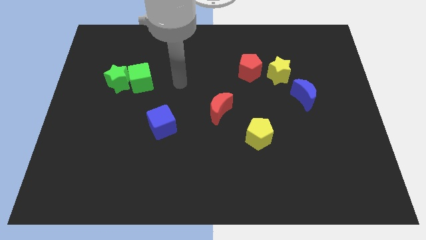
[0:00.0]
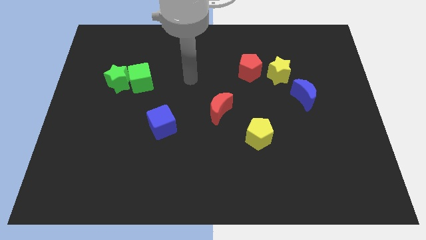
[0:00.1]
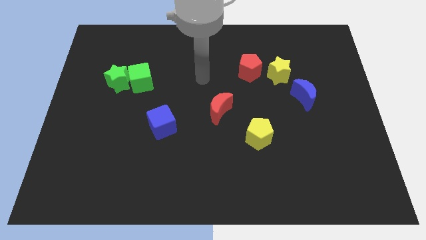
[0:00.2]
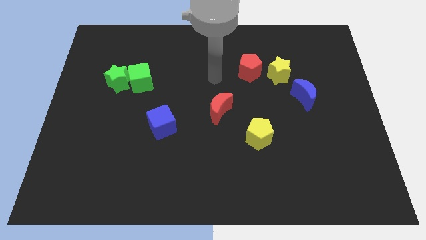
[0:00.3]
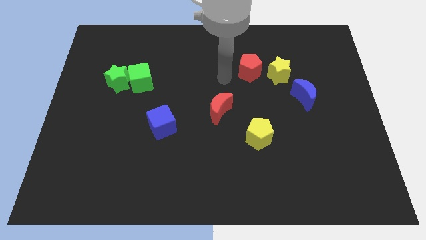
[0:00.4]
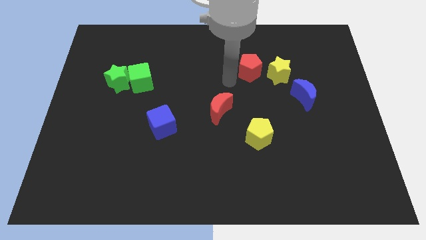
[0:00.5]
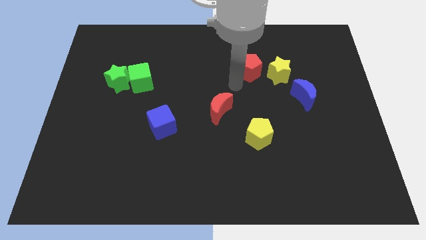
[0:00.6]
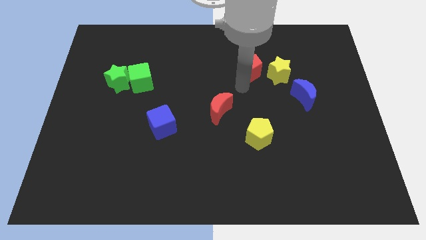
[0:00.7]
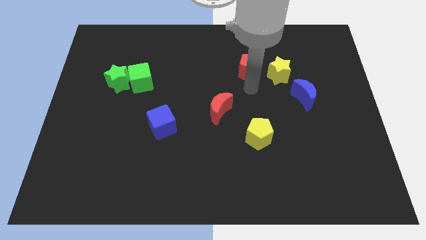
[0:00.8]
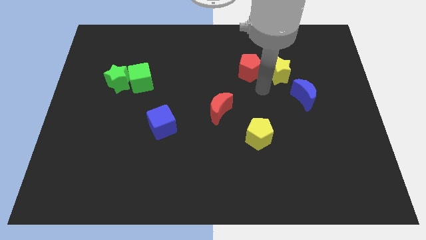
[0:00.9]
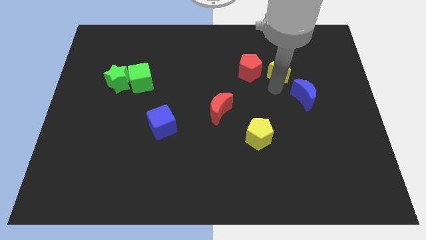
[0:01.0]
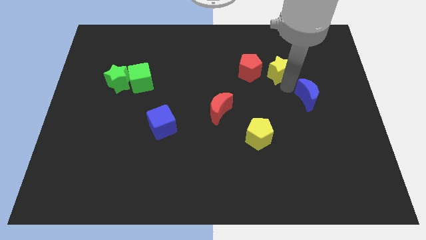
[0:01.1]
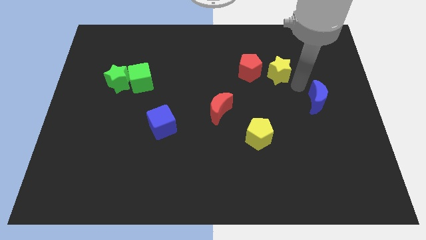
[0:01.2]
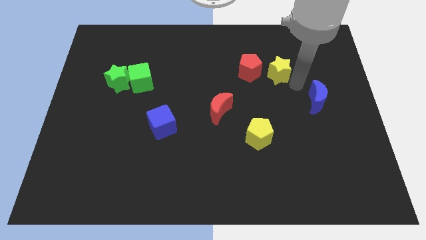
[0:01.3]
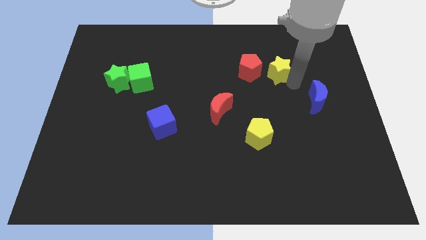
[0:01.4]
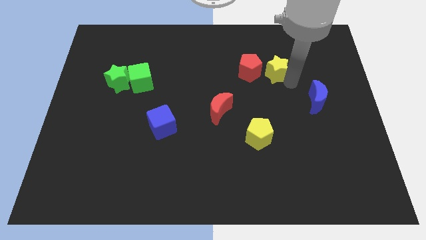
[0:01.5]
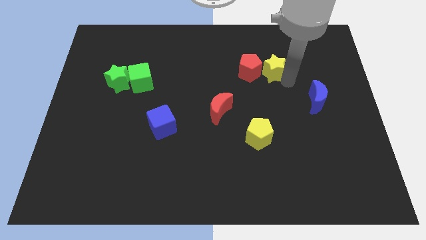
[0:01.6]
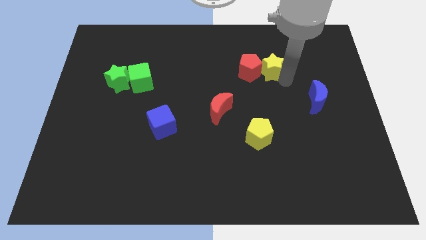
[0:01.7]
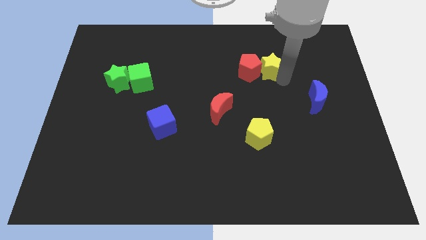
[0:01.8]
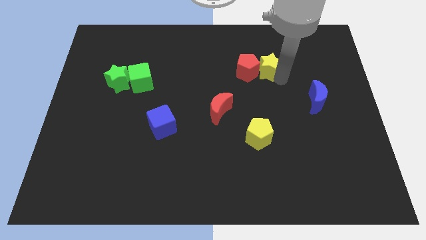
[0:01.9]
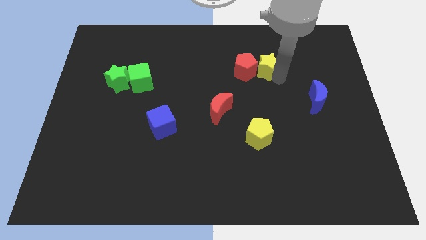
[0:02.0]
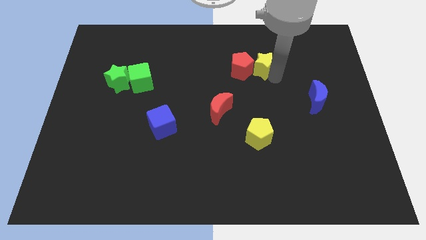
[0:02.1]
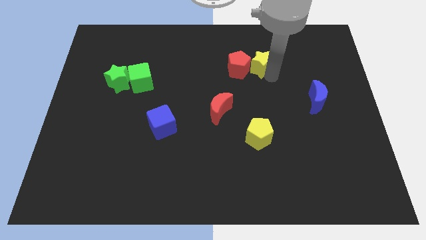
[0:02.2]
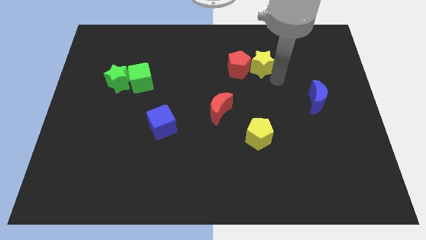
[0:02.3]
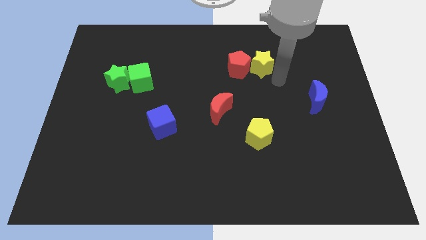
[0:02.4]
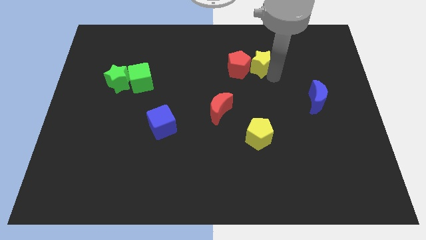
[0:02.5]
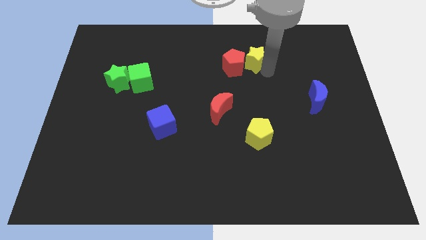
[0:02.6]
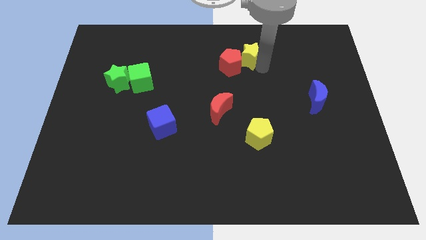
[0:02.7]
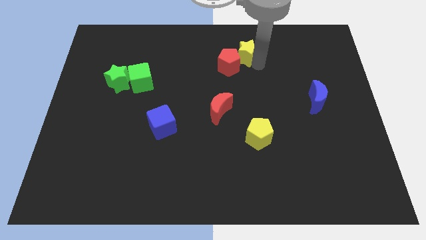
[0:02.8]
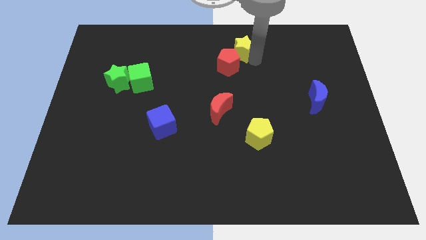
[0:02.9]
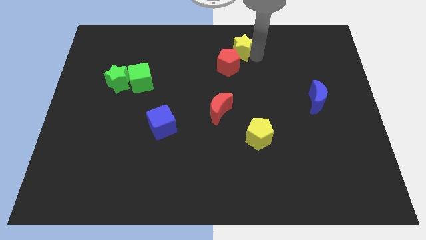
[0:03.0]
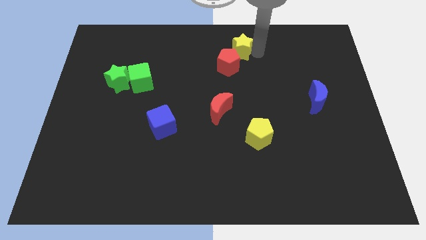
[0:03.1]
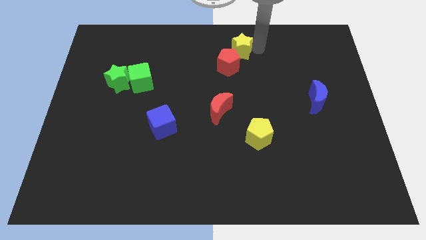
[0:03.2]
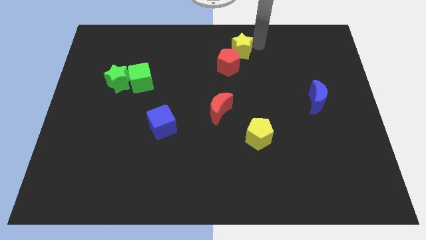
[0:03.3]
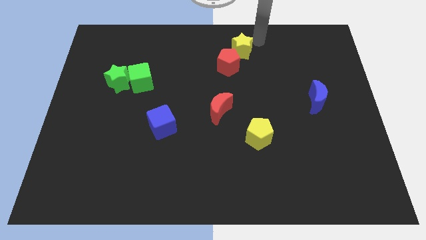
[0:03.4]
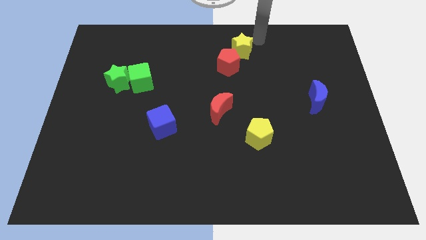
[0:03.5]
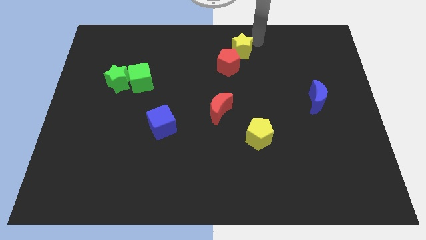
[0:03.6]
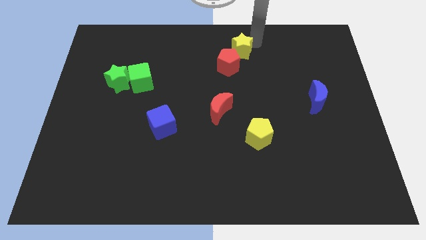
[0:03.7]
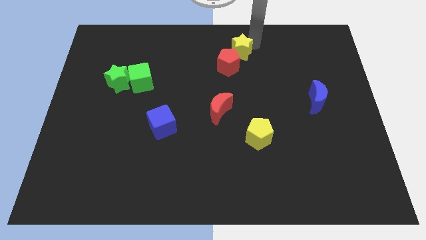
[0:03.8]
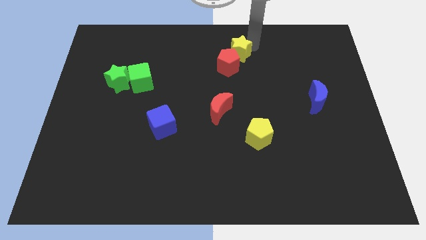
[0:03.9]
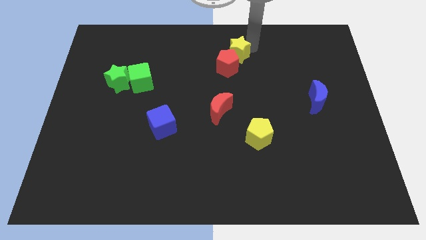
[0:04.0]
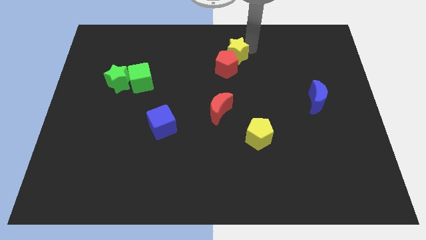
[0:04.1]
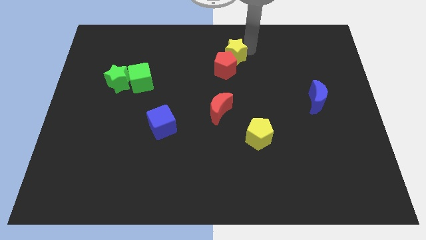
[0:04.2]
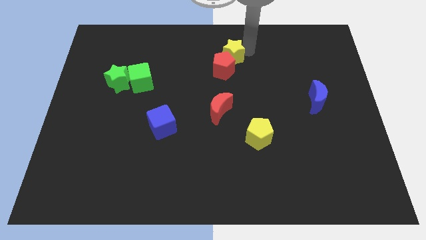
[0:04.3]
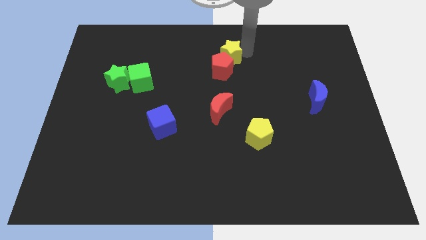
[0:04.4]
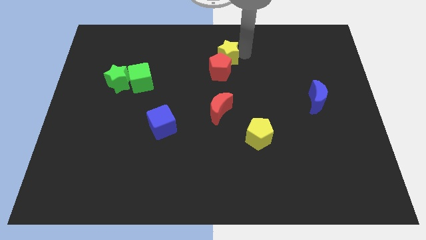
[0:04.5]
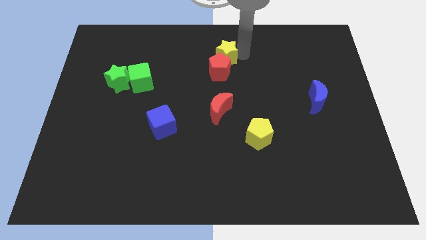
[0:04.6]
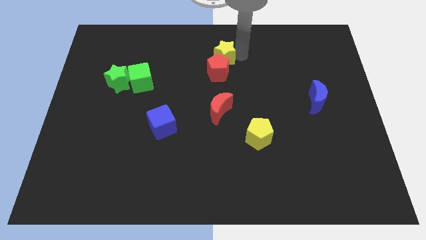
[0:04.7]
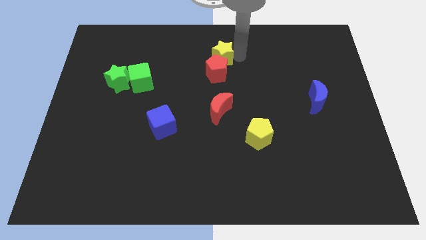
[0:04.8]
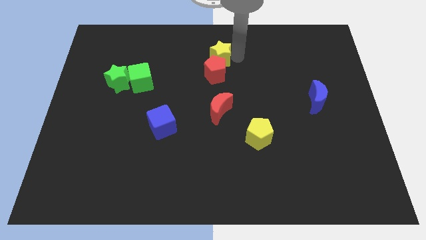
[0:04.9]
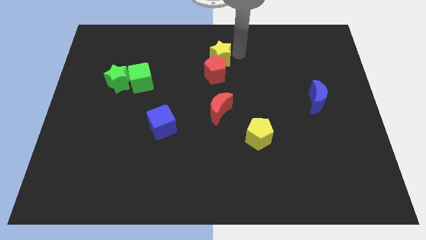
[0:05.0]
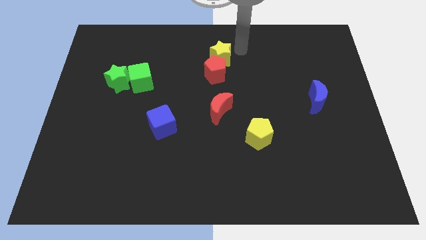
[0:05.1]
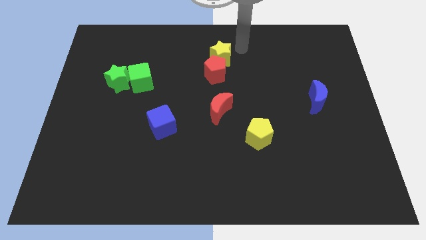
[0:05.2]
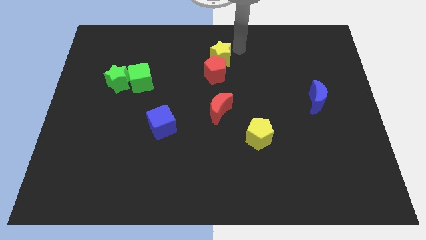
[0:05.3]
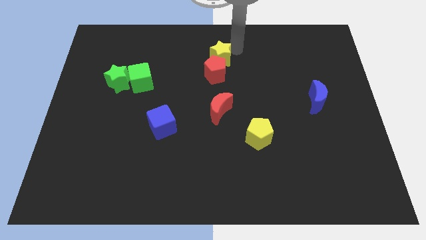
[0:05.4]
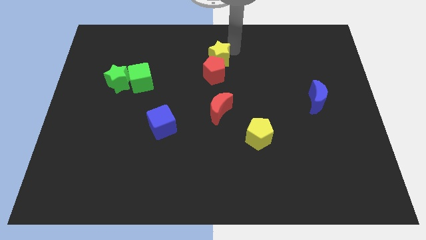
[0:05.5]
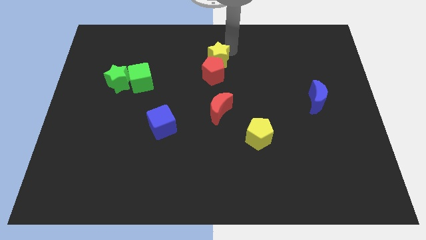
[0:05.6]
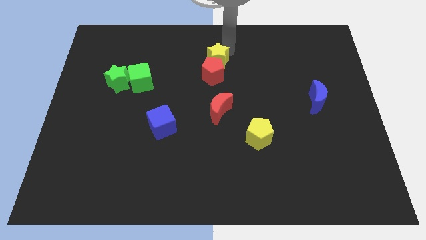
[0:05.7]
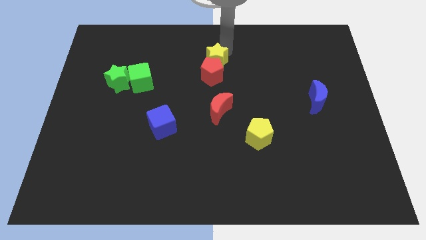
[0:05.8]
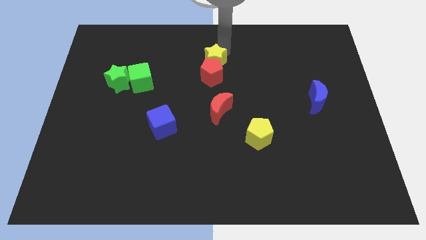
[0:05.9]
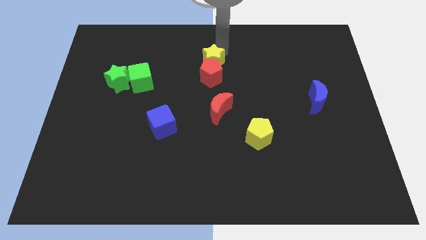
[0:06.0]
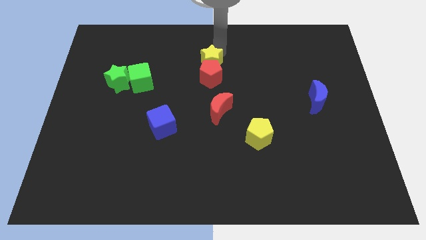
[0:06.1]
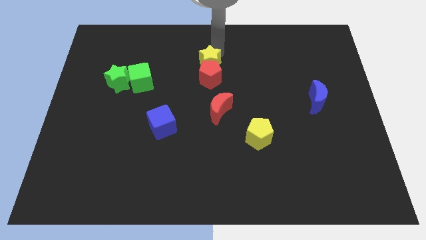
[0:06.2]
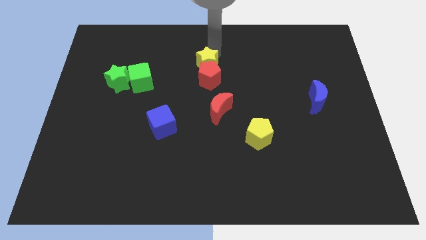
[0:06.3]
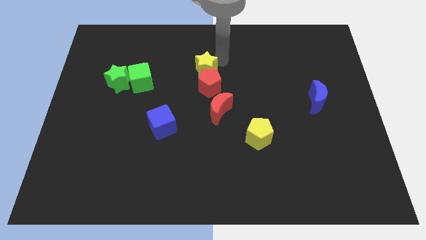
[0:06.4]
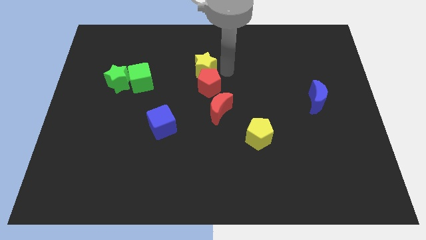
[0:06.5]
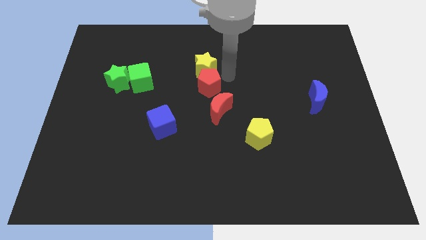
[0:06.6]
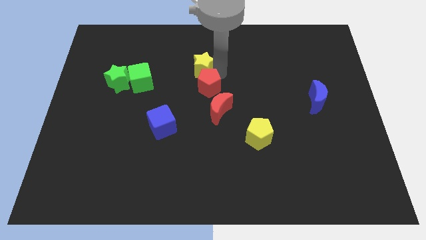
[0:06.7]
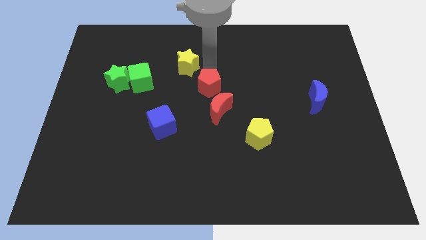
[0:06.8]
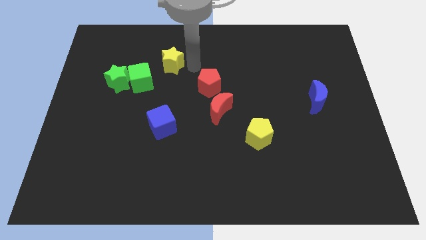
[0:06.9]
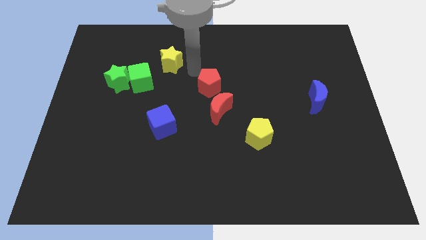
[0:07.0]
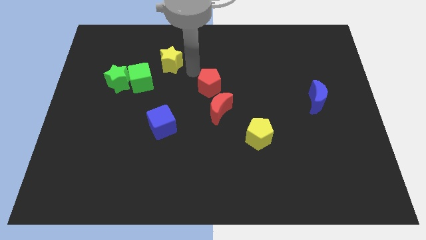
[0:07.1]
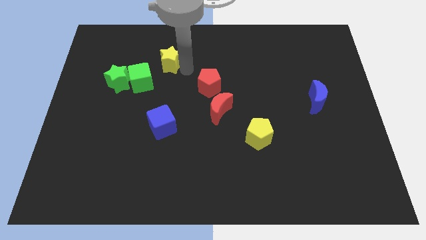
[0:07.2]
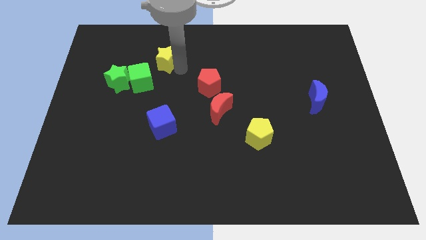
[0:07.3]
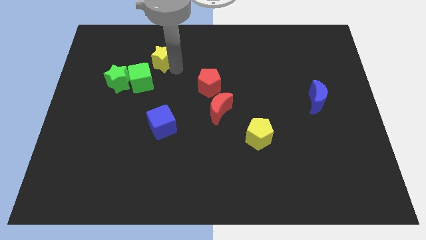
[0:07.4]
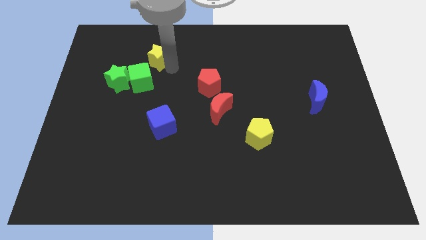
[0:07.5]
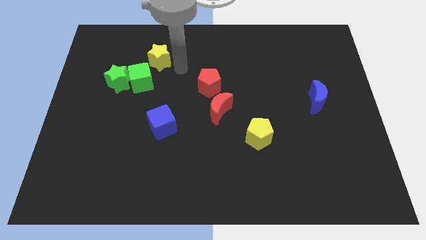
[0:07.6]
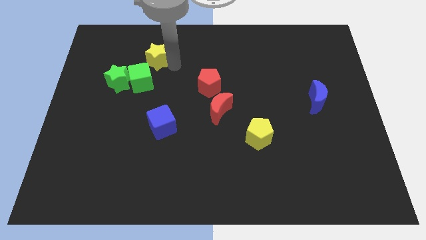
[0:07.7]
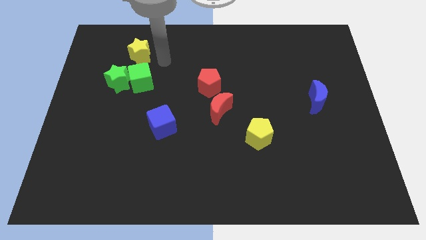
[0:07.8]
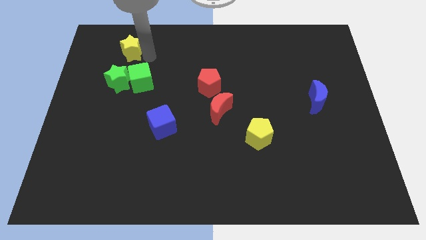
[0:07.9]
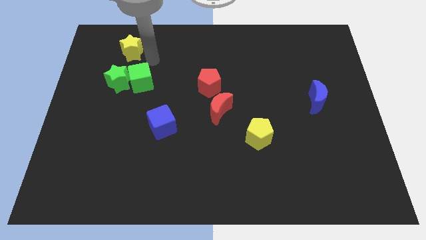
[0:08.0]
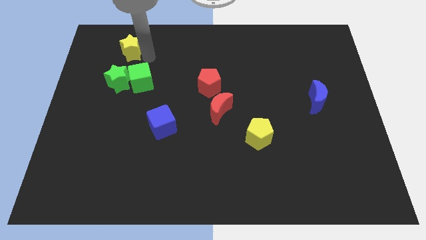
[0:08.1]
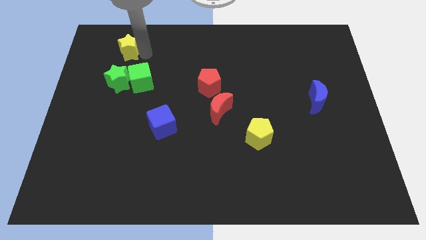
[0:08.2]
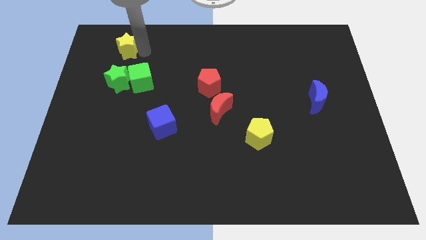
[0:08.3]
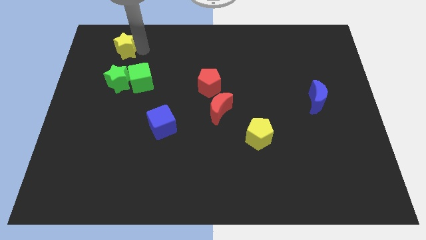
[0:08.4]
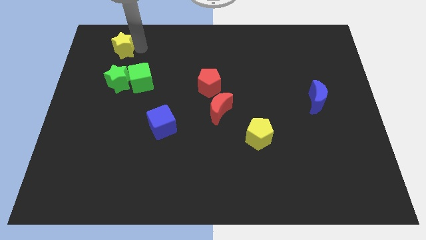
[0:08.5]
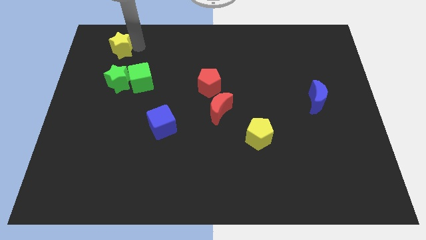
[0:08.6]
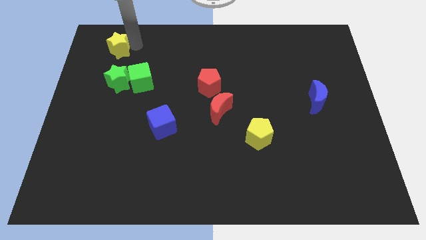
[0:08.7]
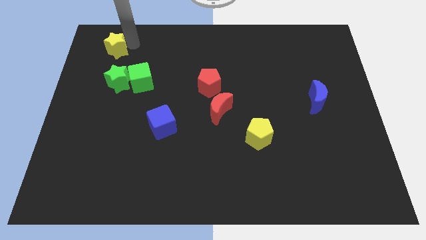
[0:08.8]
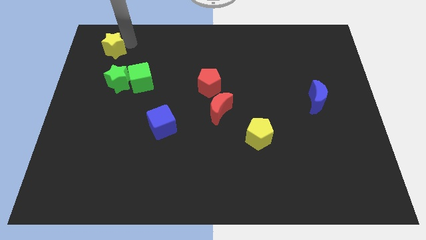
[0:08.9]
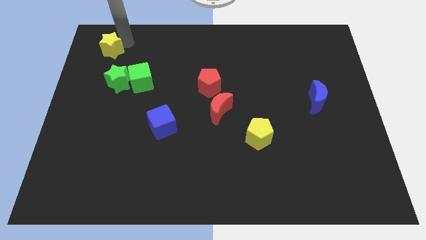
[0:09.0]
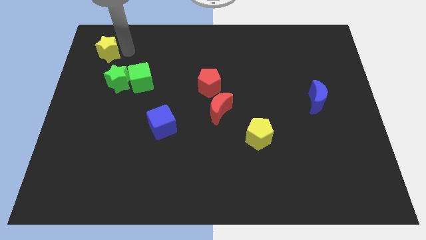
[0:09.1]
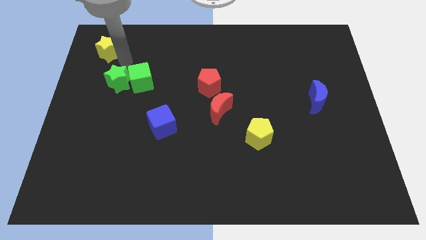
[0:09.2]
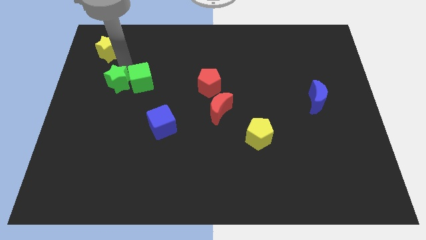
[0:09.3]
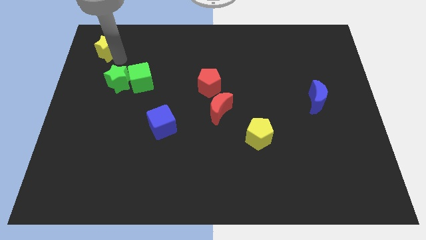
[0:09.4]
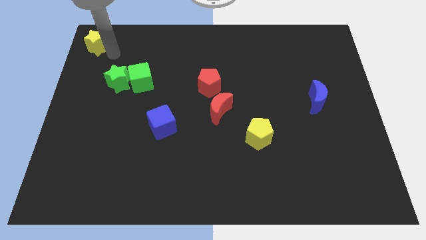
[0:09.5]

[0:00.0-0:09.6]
push the yellow star to the top left of the board
